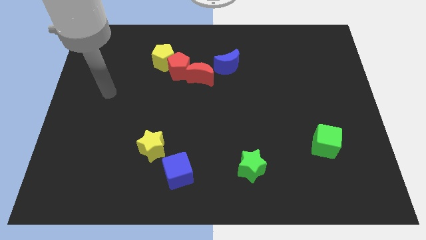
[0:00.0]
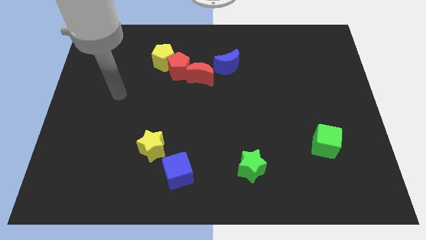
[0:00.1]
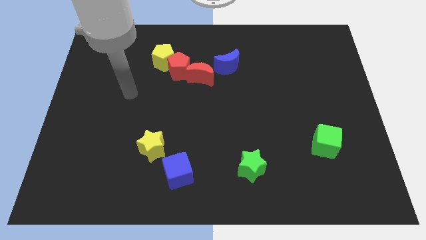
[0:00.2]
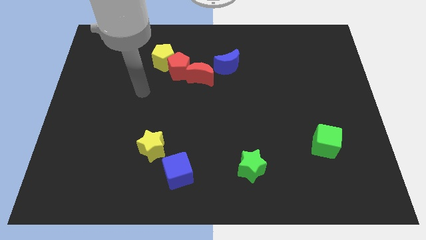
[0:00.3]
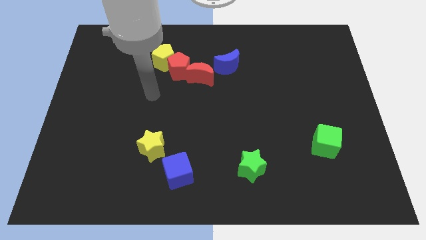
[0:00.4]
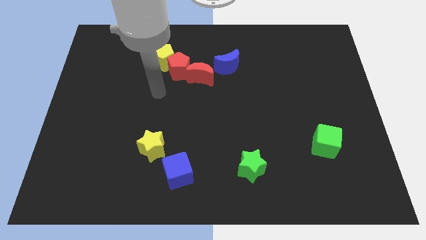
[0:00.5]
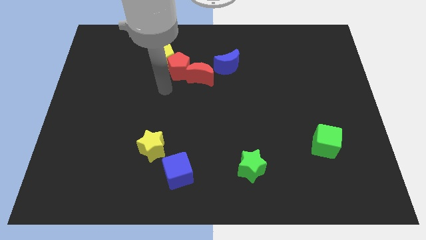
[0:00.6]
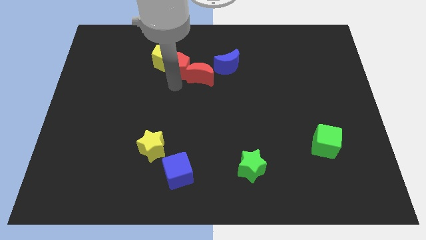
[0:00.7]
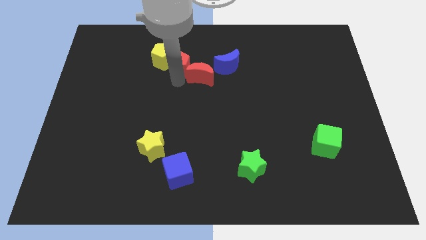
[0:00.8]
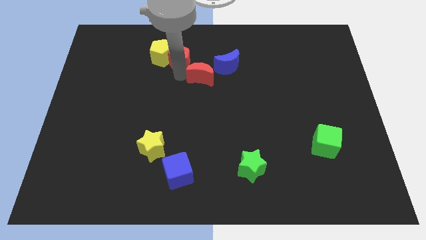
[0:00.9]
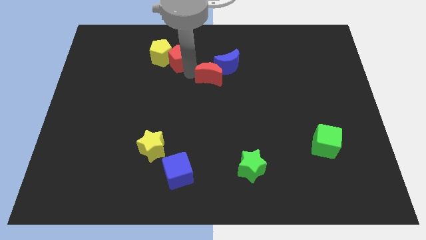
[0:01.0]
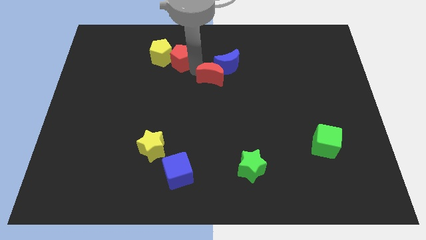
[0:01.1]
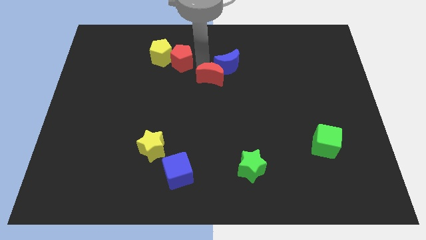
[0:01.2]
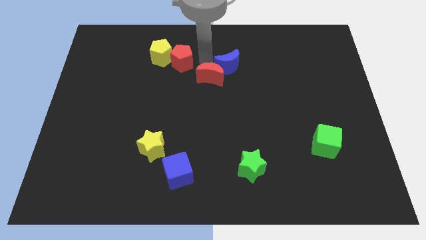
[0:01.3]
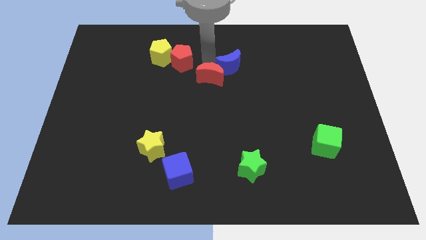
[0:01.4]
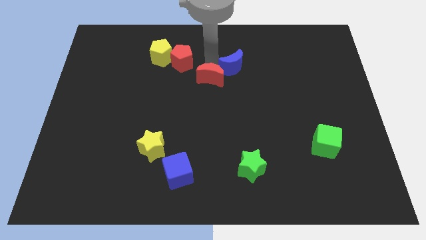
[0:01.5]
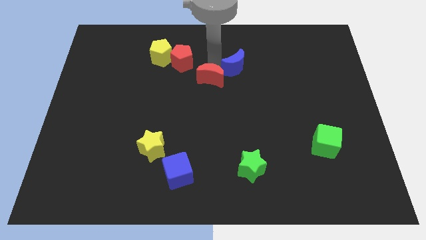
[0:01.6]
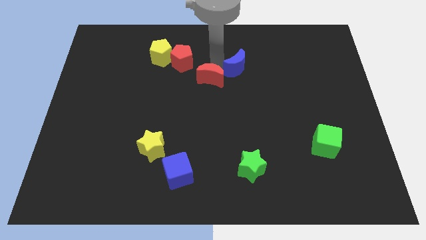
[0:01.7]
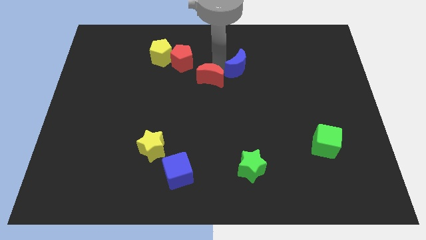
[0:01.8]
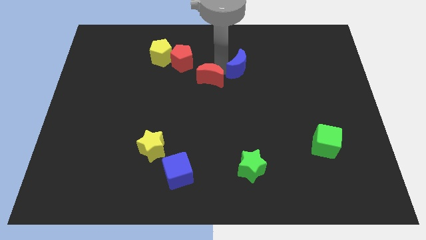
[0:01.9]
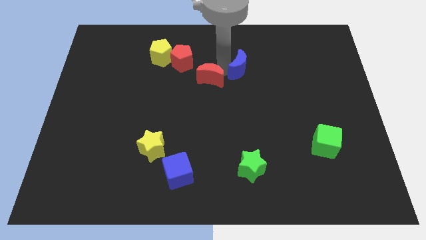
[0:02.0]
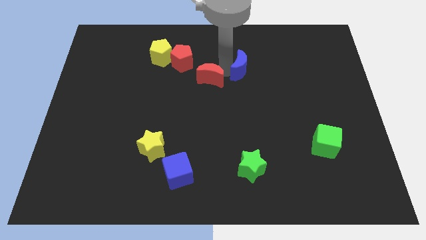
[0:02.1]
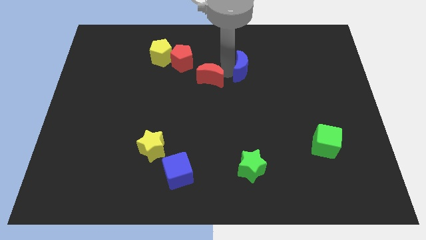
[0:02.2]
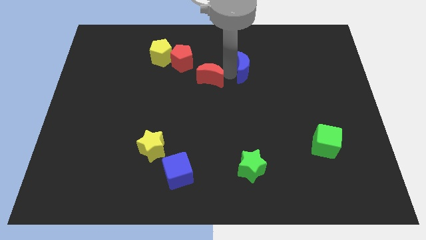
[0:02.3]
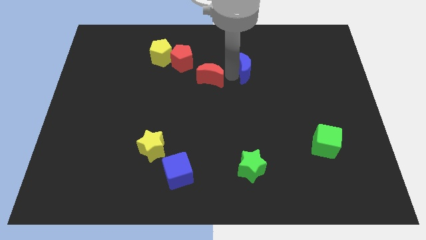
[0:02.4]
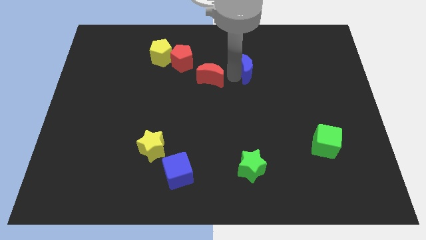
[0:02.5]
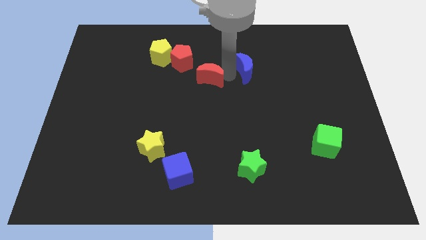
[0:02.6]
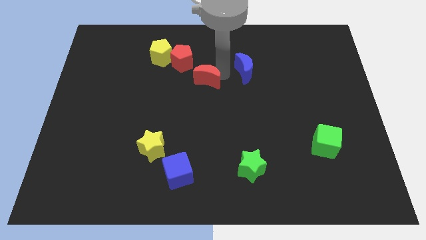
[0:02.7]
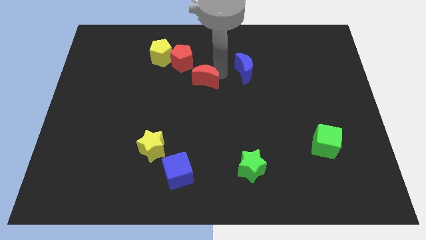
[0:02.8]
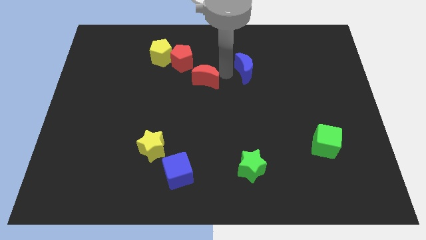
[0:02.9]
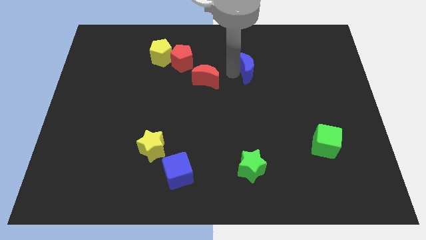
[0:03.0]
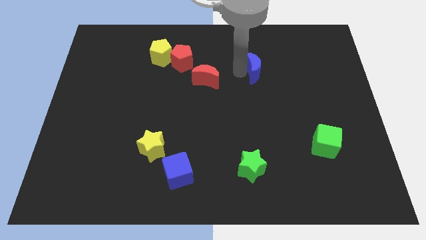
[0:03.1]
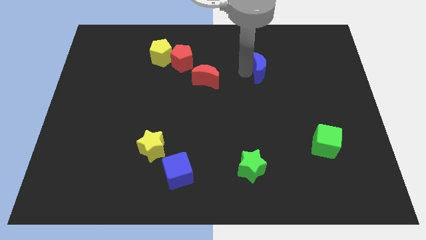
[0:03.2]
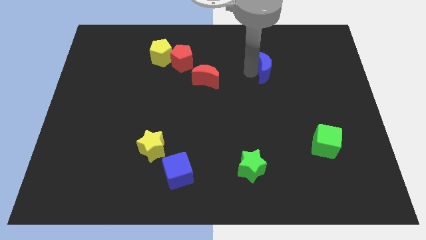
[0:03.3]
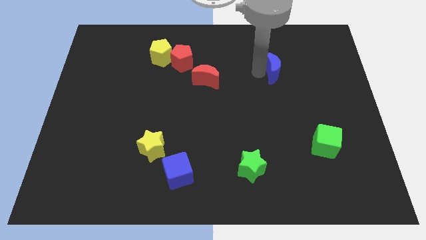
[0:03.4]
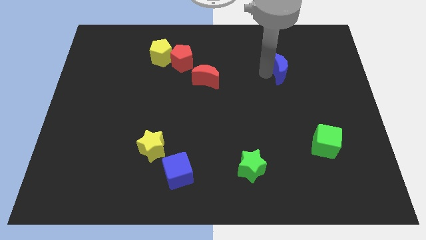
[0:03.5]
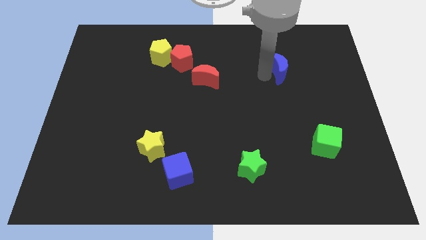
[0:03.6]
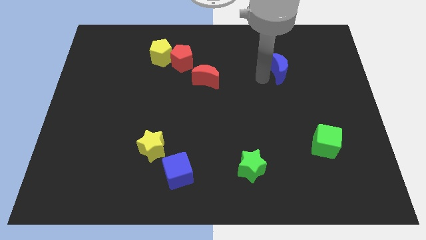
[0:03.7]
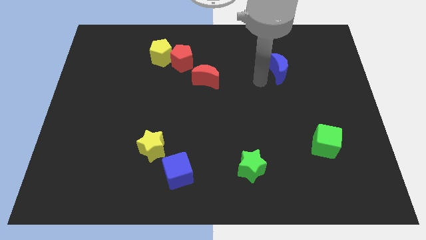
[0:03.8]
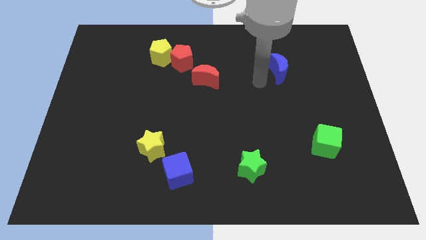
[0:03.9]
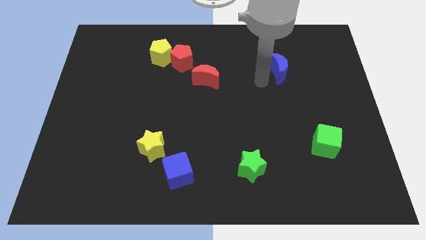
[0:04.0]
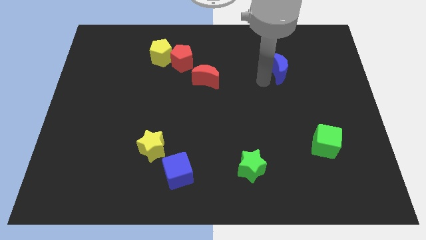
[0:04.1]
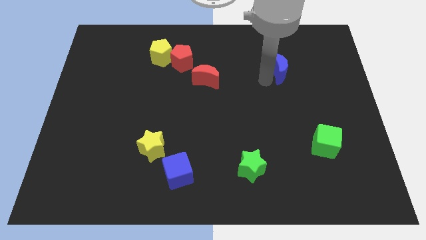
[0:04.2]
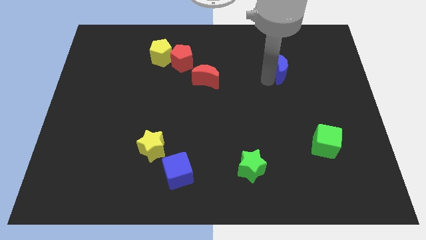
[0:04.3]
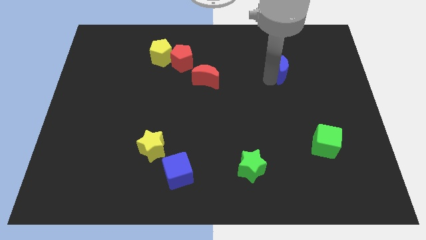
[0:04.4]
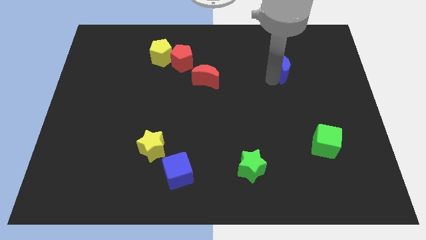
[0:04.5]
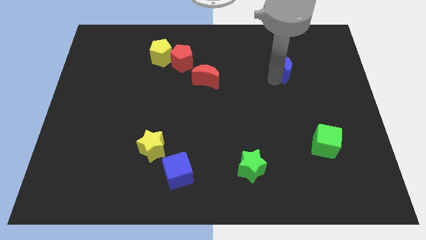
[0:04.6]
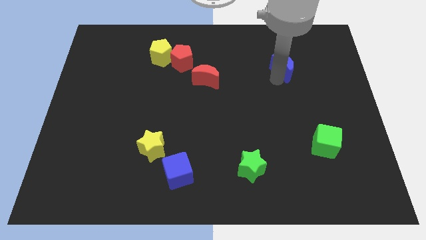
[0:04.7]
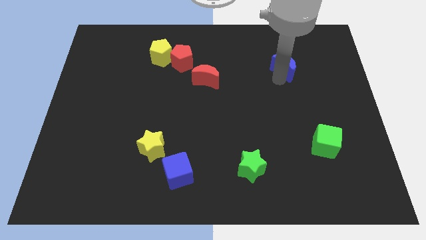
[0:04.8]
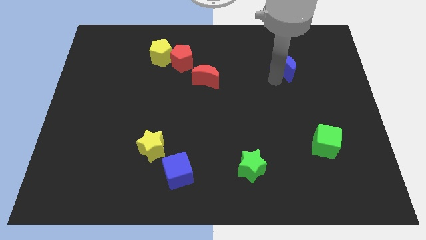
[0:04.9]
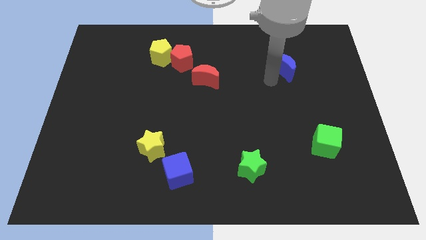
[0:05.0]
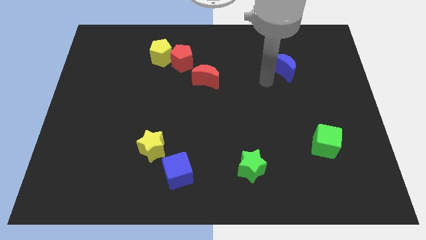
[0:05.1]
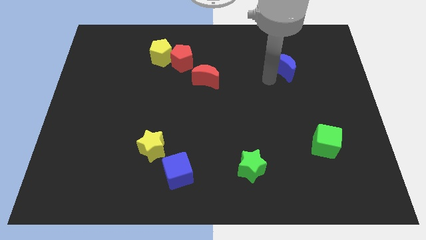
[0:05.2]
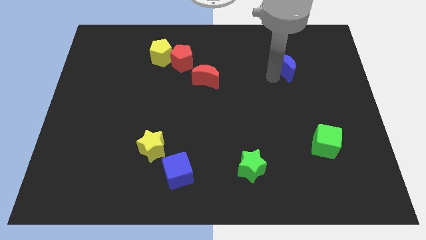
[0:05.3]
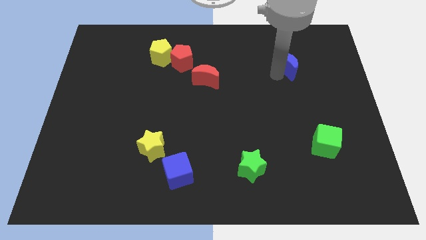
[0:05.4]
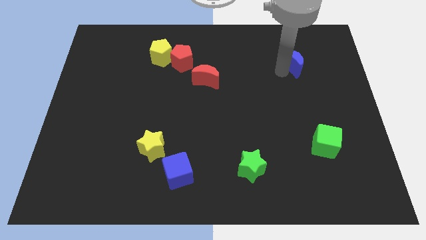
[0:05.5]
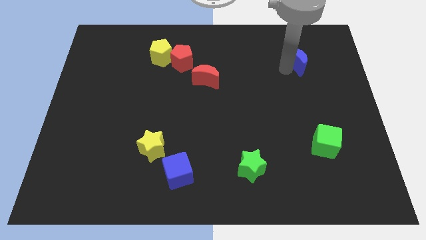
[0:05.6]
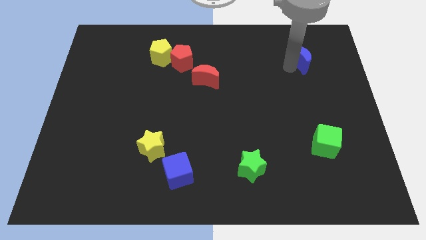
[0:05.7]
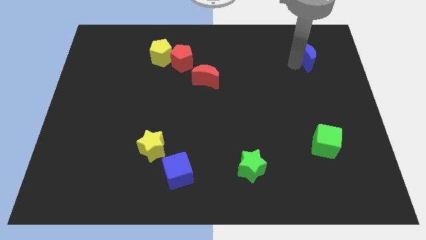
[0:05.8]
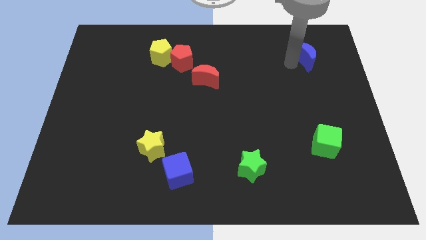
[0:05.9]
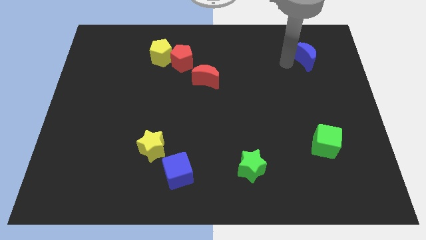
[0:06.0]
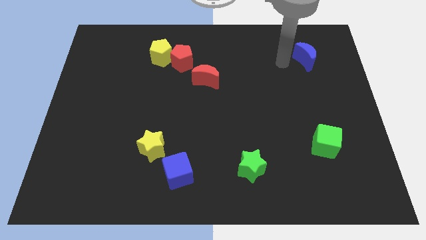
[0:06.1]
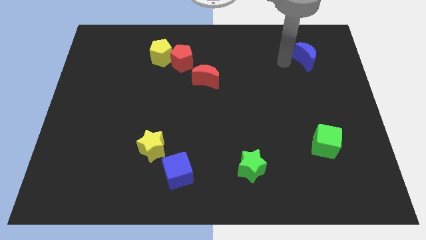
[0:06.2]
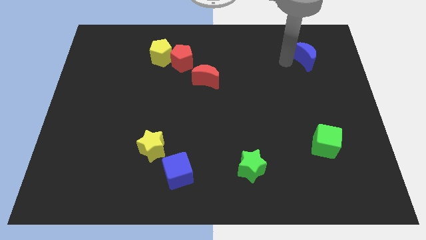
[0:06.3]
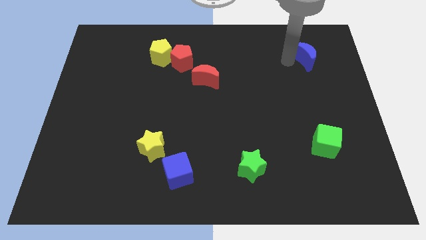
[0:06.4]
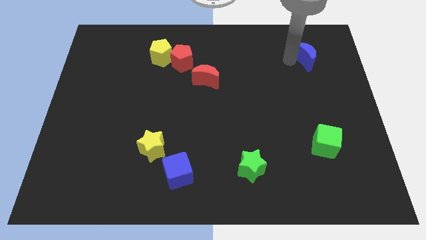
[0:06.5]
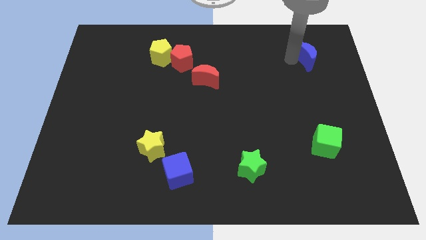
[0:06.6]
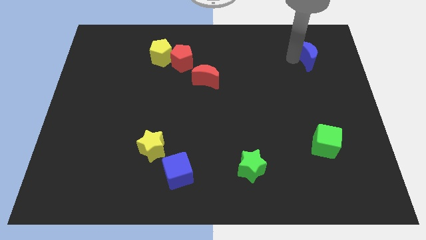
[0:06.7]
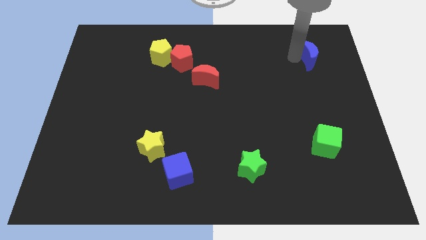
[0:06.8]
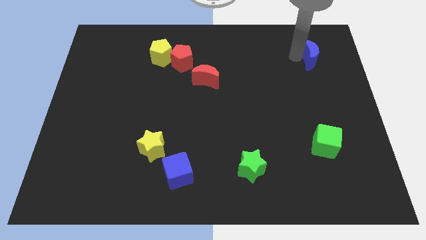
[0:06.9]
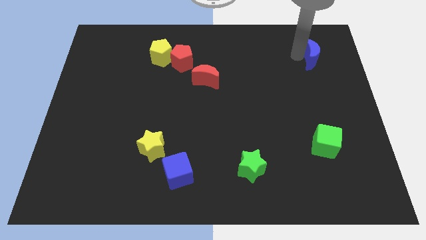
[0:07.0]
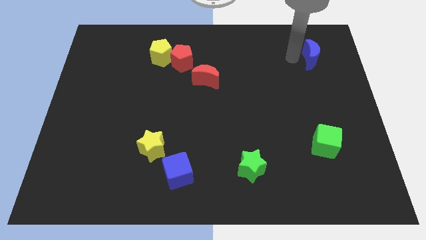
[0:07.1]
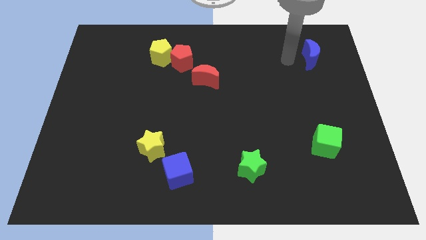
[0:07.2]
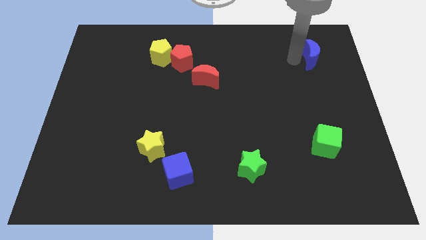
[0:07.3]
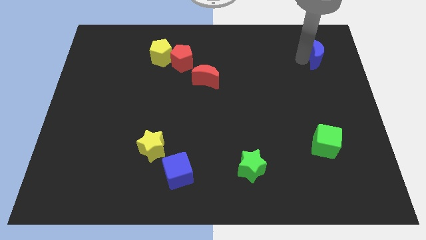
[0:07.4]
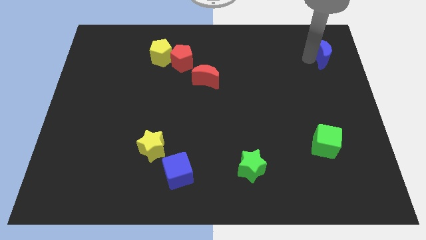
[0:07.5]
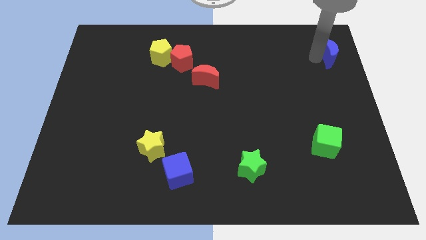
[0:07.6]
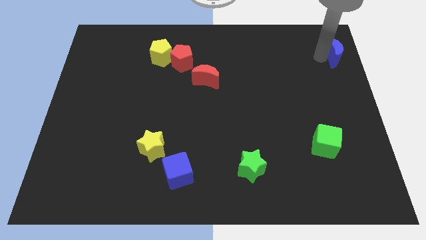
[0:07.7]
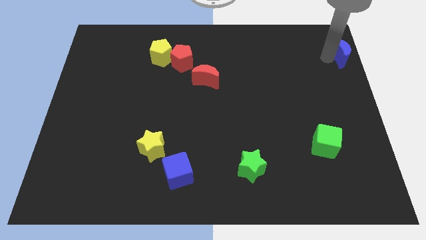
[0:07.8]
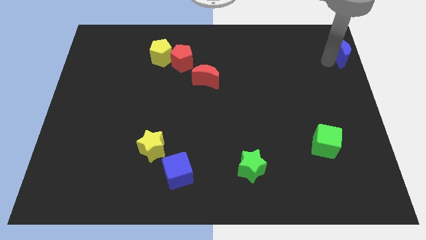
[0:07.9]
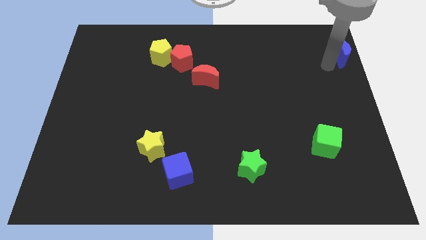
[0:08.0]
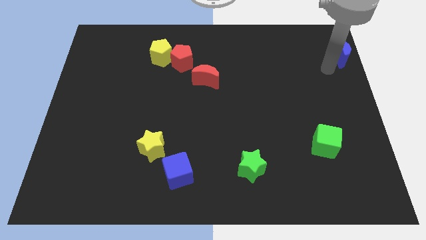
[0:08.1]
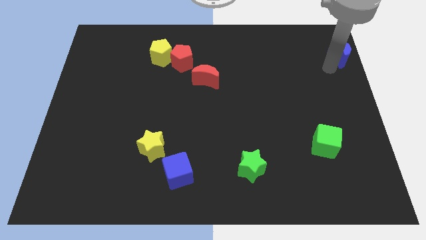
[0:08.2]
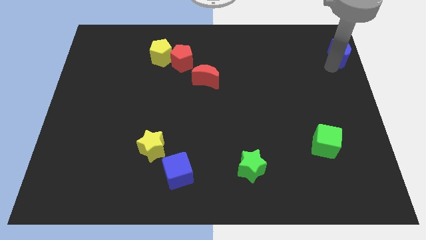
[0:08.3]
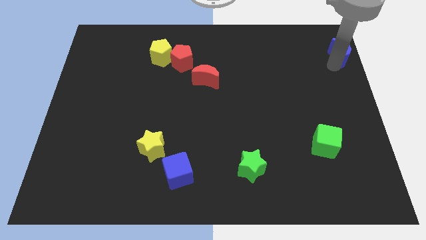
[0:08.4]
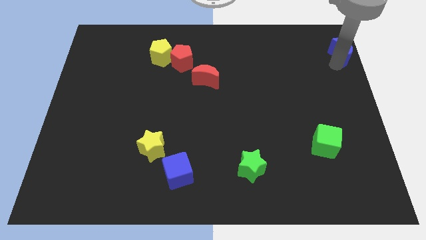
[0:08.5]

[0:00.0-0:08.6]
slide the blue moon to the upper right corner
